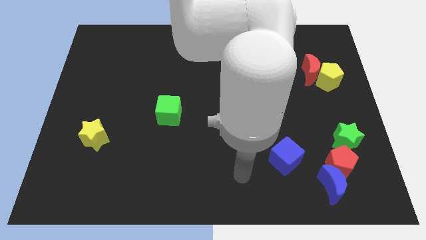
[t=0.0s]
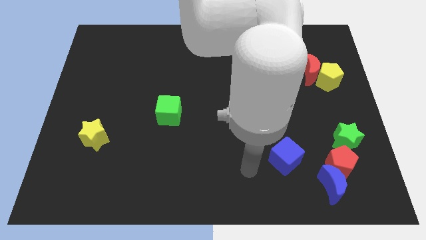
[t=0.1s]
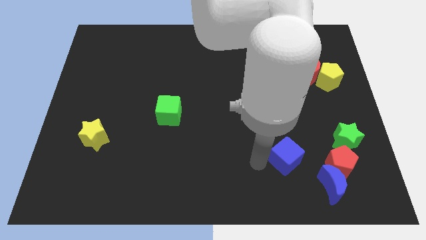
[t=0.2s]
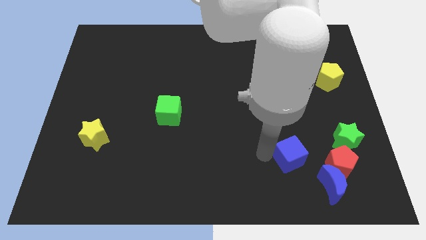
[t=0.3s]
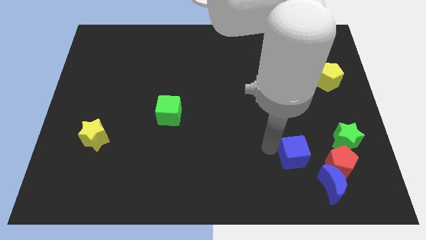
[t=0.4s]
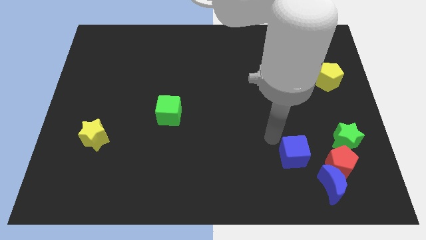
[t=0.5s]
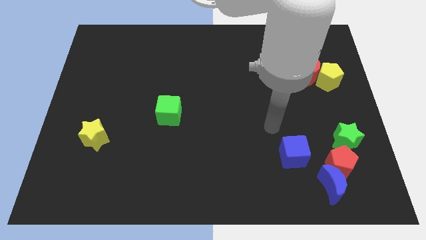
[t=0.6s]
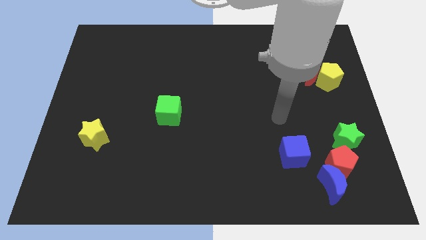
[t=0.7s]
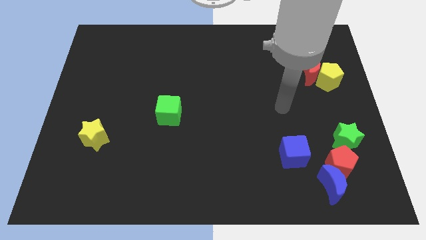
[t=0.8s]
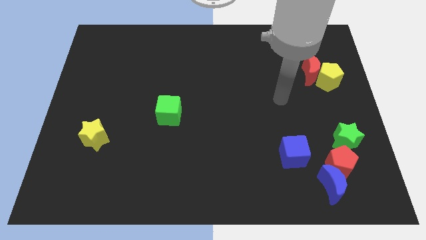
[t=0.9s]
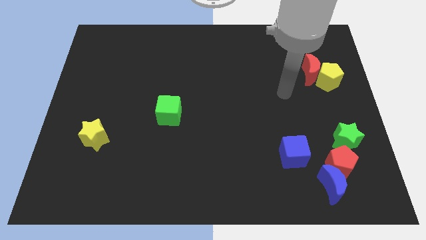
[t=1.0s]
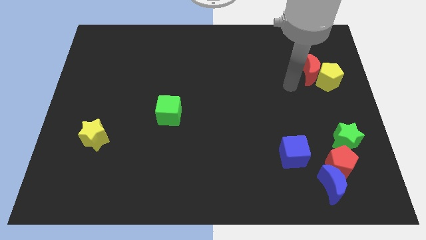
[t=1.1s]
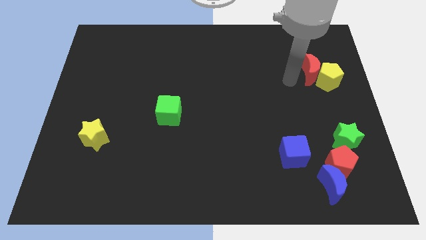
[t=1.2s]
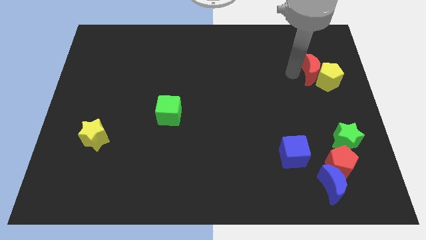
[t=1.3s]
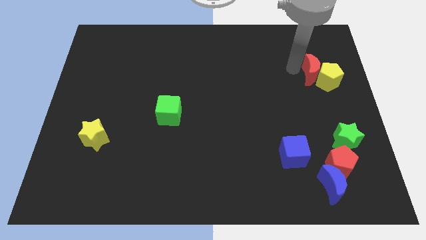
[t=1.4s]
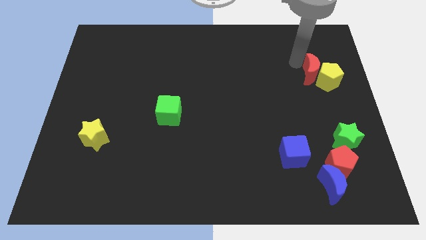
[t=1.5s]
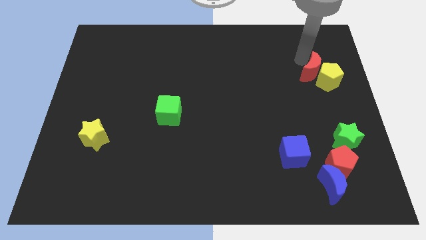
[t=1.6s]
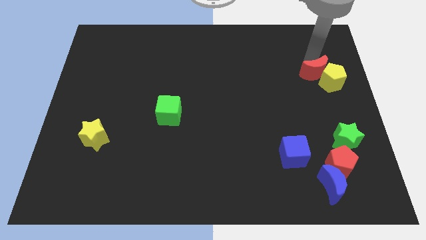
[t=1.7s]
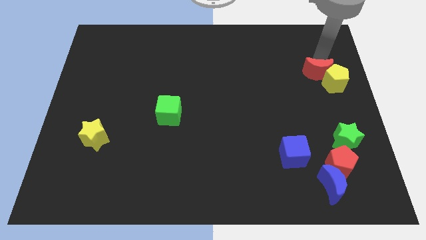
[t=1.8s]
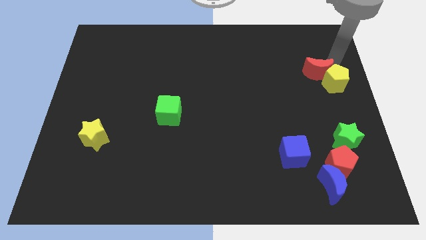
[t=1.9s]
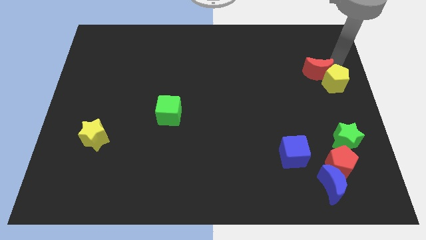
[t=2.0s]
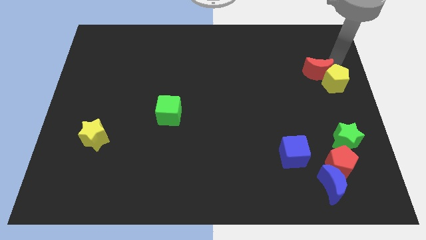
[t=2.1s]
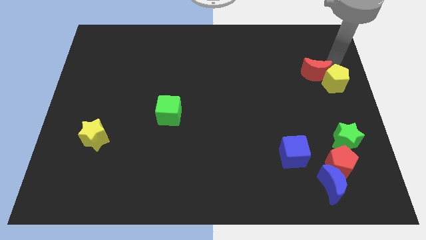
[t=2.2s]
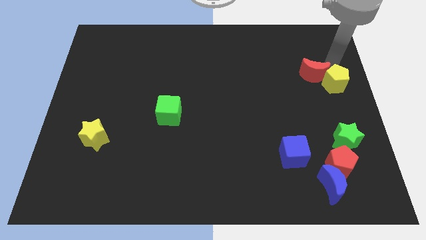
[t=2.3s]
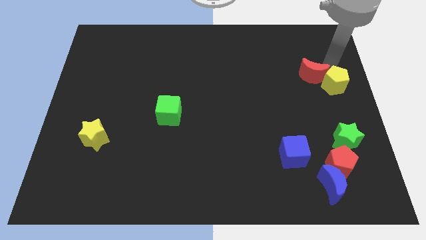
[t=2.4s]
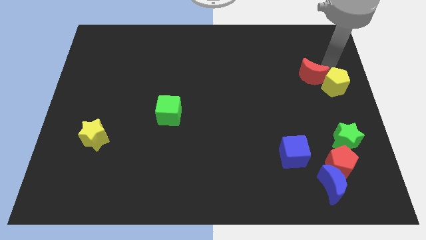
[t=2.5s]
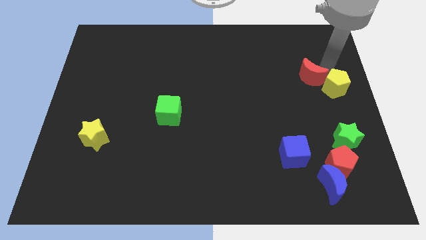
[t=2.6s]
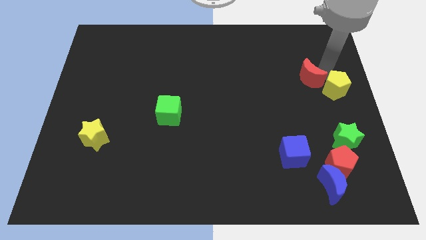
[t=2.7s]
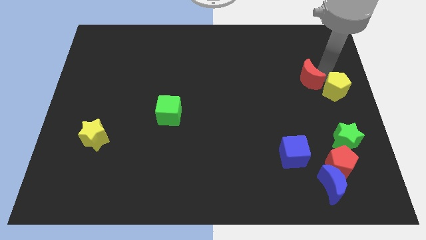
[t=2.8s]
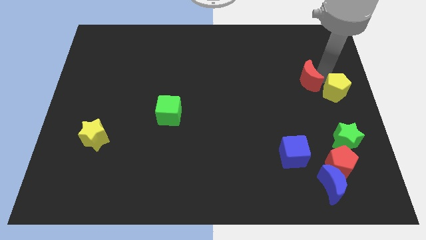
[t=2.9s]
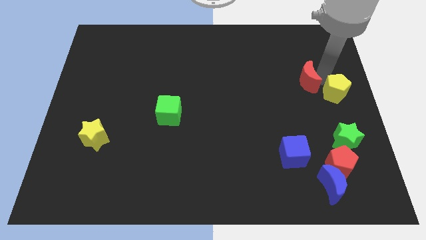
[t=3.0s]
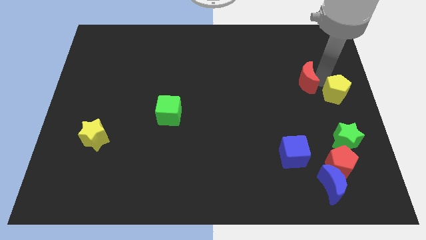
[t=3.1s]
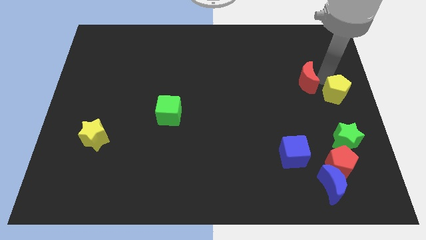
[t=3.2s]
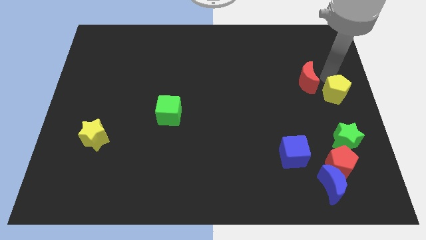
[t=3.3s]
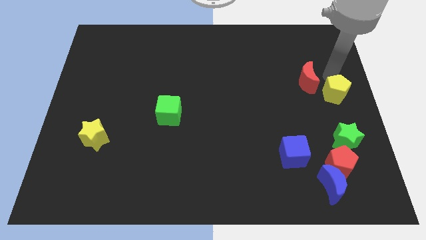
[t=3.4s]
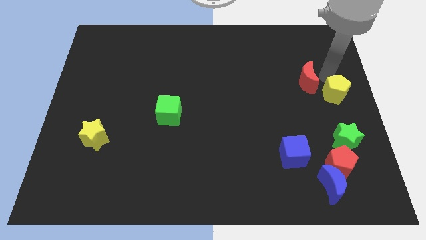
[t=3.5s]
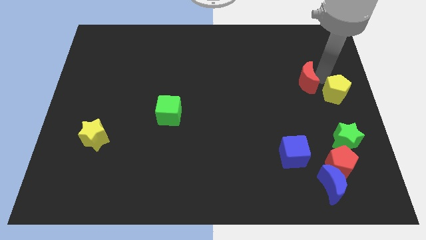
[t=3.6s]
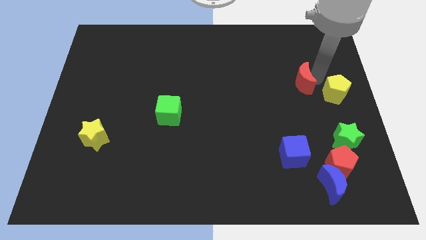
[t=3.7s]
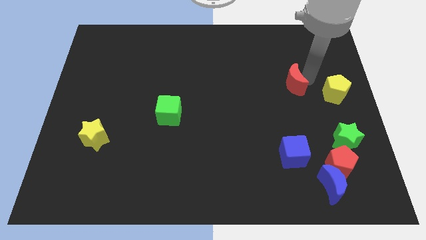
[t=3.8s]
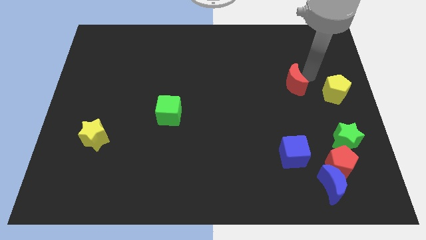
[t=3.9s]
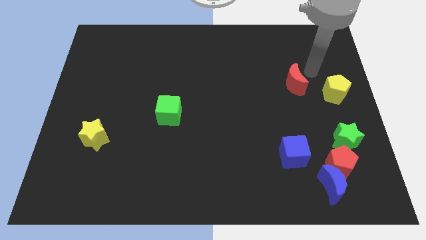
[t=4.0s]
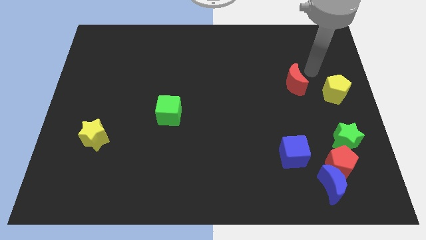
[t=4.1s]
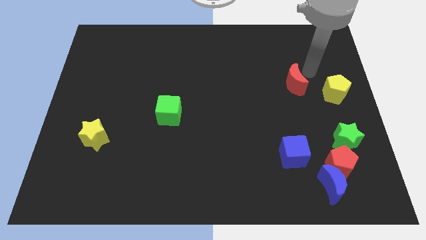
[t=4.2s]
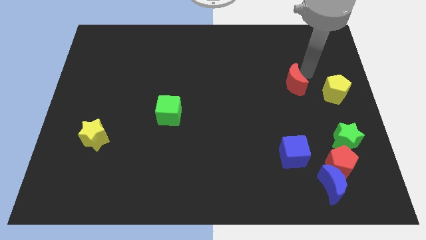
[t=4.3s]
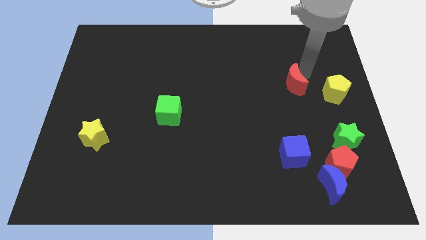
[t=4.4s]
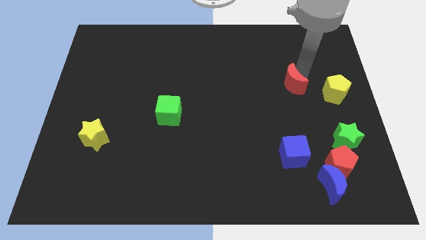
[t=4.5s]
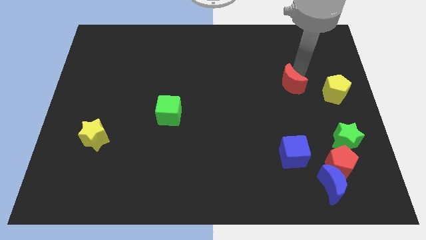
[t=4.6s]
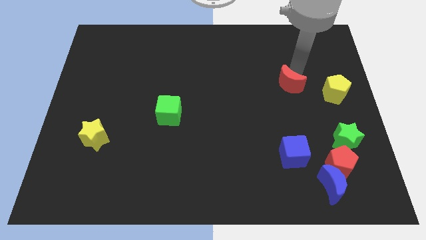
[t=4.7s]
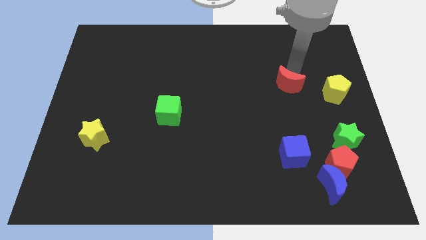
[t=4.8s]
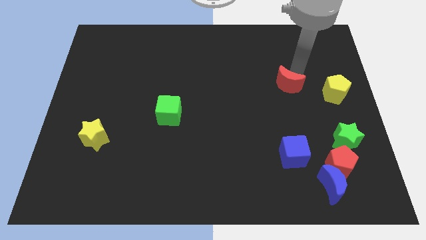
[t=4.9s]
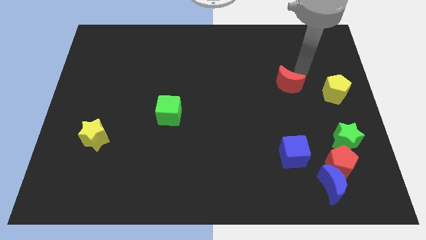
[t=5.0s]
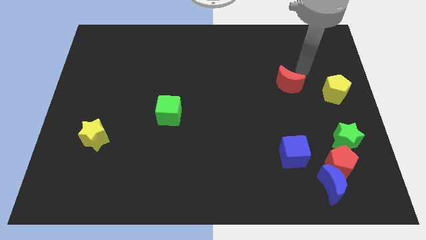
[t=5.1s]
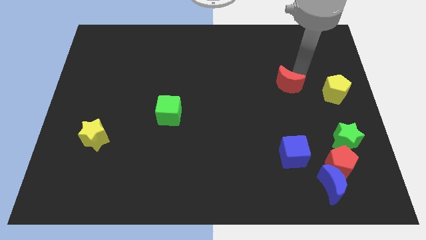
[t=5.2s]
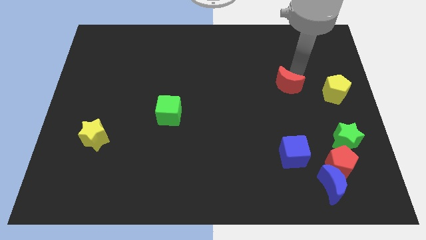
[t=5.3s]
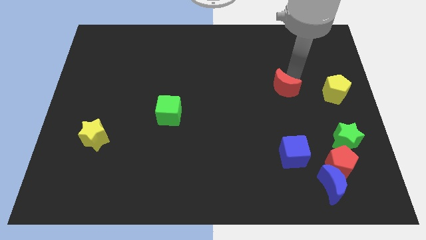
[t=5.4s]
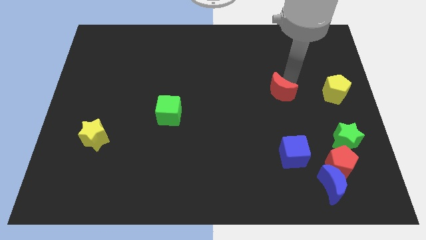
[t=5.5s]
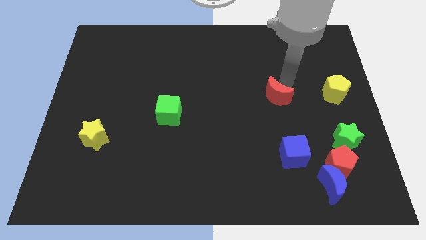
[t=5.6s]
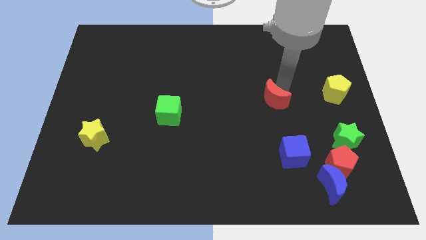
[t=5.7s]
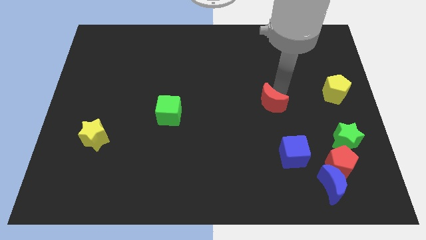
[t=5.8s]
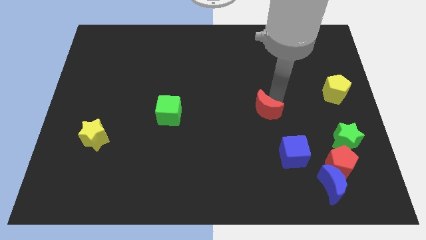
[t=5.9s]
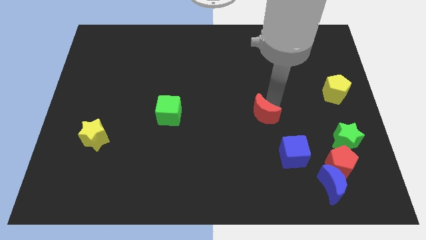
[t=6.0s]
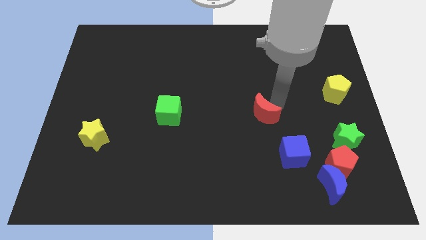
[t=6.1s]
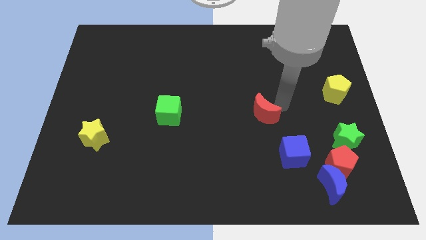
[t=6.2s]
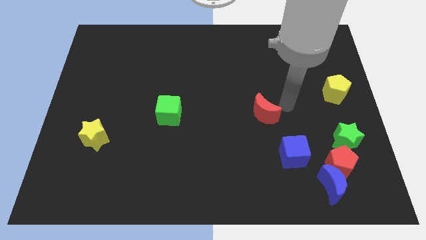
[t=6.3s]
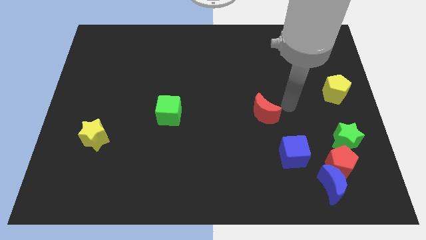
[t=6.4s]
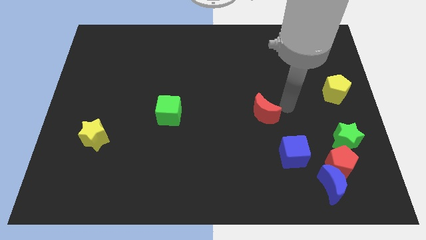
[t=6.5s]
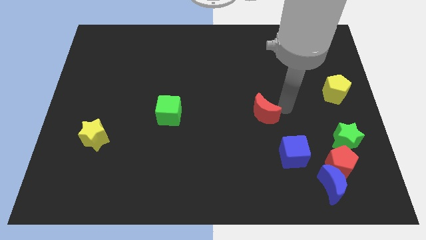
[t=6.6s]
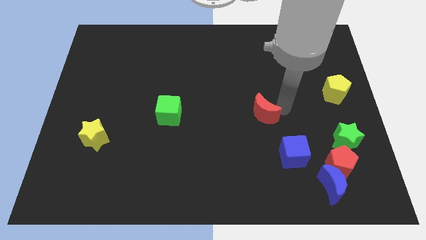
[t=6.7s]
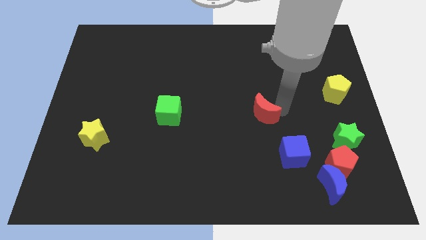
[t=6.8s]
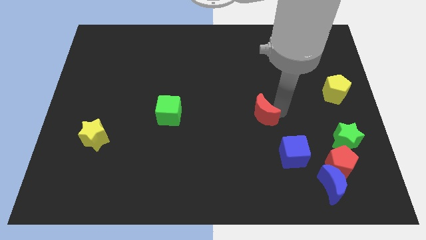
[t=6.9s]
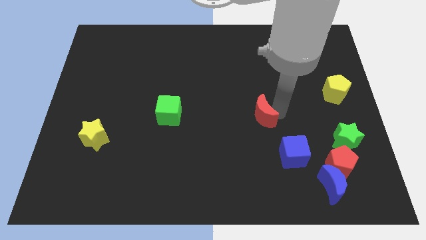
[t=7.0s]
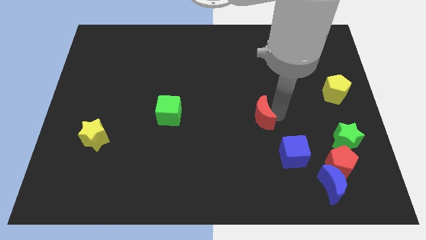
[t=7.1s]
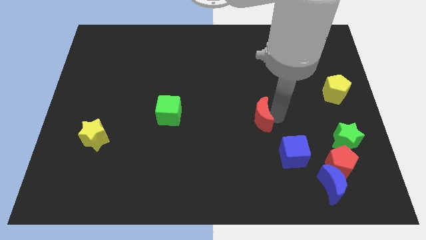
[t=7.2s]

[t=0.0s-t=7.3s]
move the red moon down and then to the left

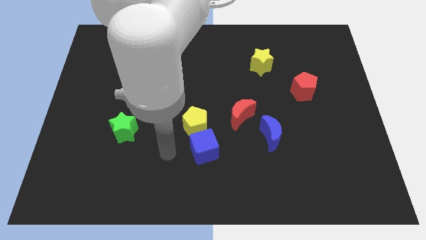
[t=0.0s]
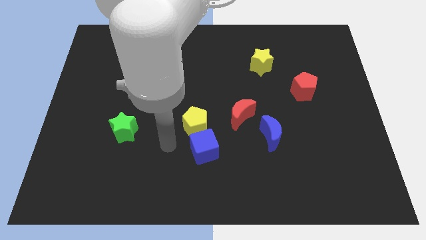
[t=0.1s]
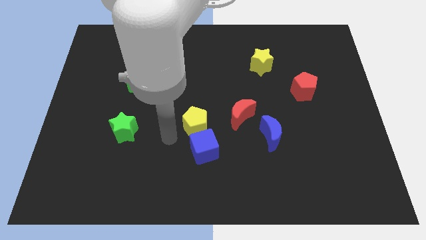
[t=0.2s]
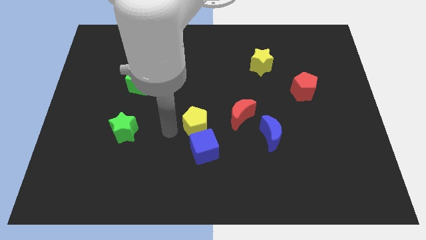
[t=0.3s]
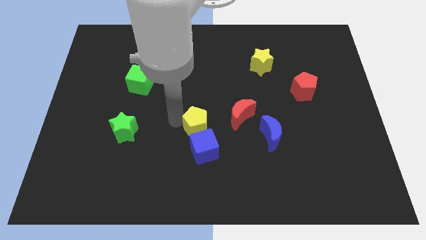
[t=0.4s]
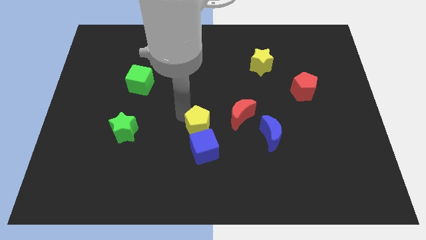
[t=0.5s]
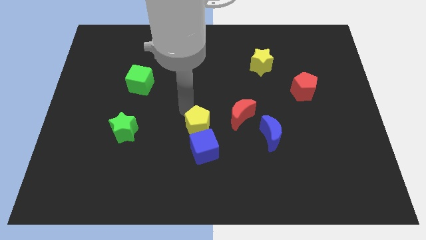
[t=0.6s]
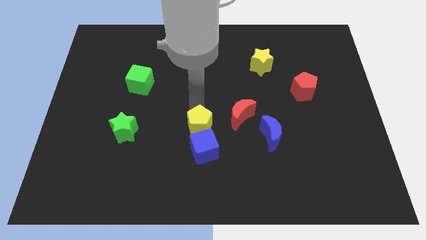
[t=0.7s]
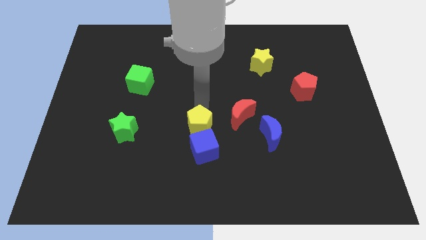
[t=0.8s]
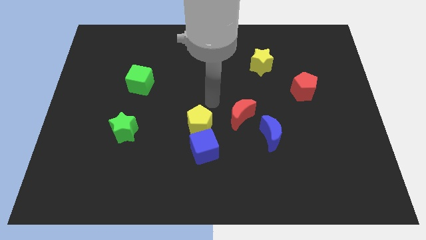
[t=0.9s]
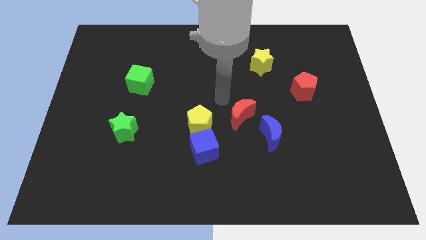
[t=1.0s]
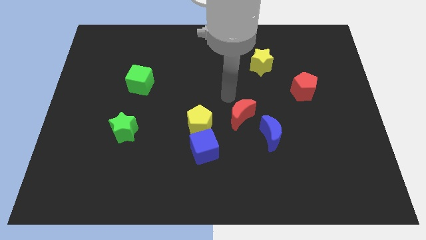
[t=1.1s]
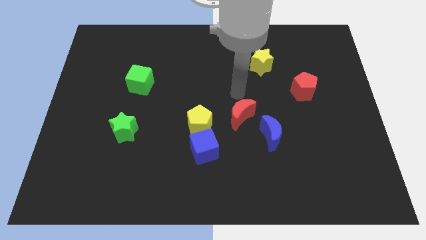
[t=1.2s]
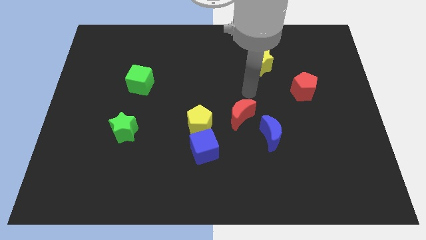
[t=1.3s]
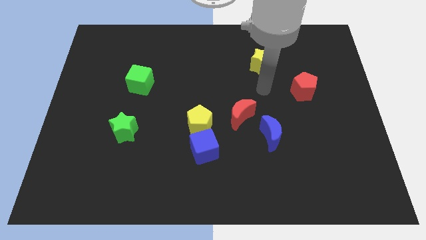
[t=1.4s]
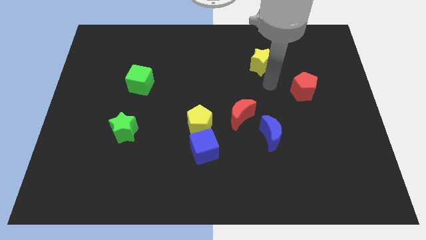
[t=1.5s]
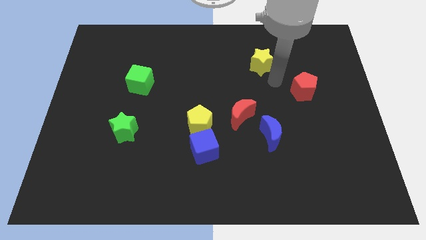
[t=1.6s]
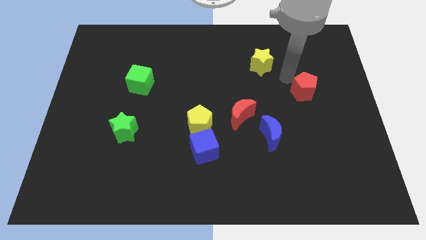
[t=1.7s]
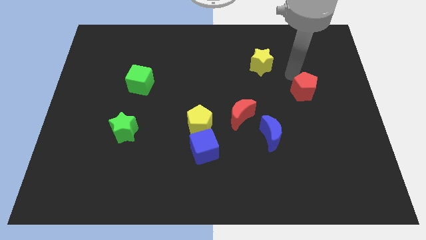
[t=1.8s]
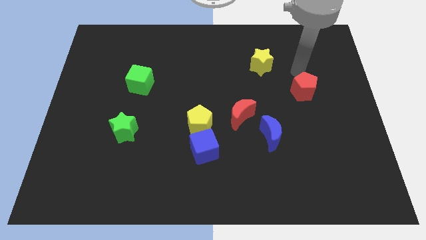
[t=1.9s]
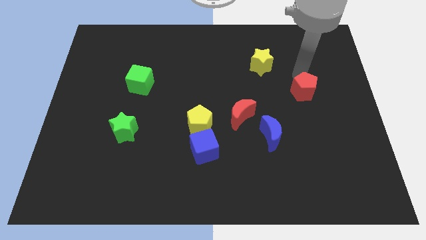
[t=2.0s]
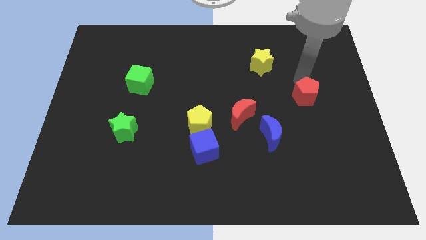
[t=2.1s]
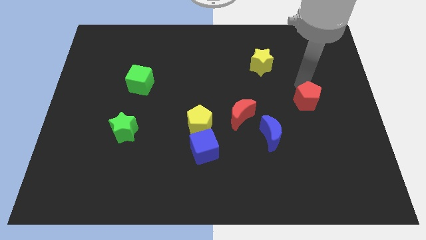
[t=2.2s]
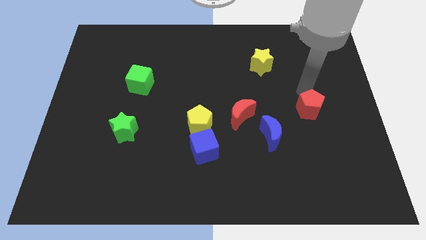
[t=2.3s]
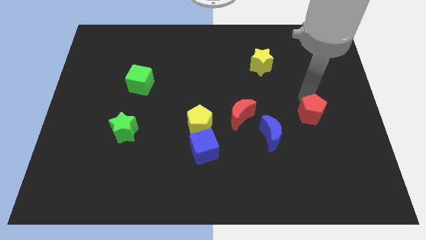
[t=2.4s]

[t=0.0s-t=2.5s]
push the red pentagon downwards a little
